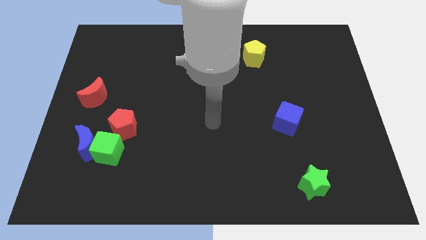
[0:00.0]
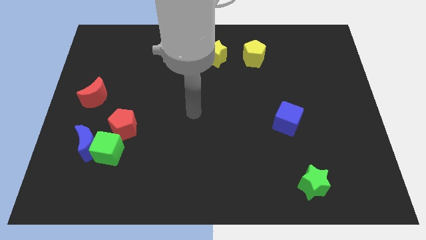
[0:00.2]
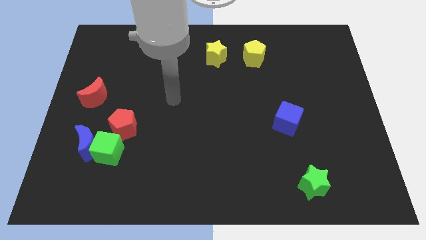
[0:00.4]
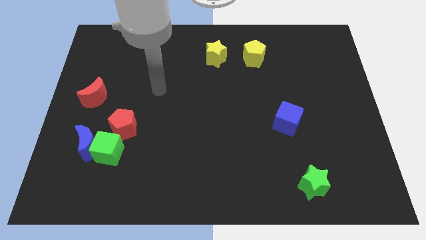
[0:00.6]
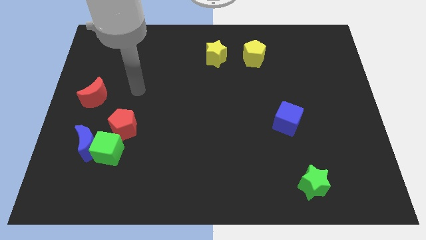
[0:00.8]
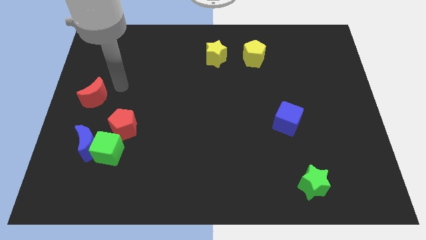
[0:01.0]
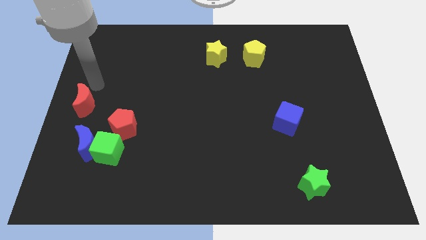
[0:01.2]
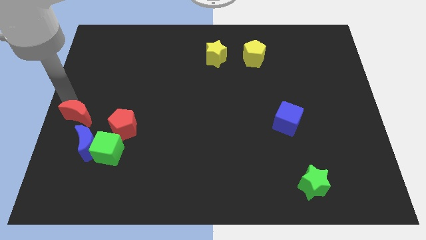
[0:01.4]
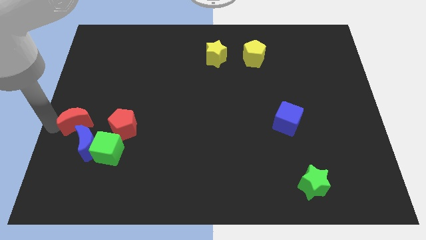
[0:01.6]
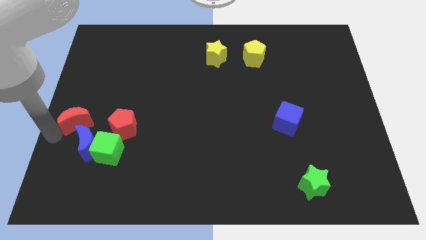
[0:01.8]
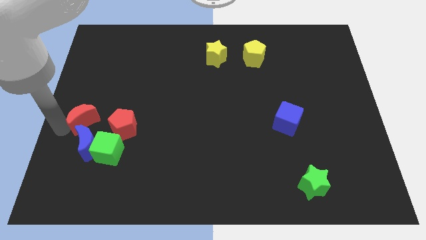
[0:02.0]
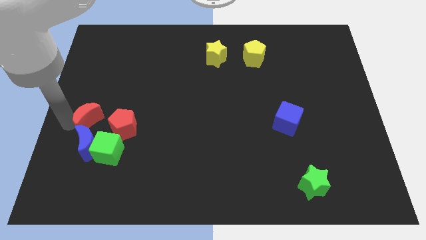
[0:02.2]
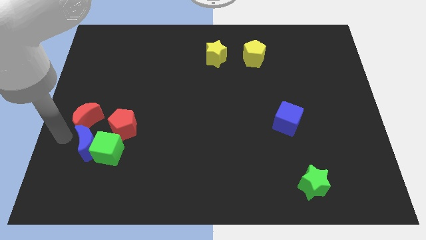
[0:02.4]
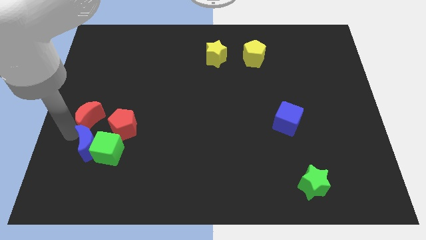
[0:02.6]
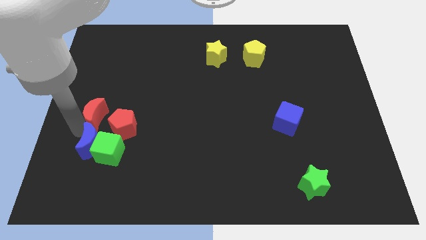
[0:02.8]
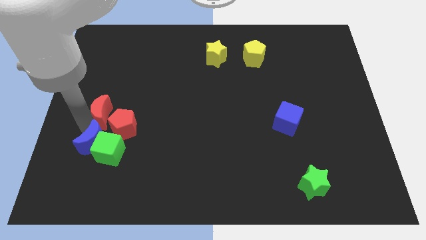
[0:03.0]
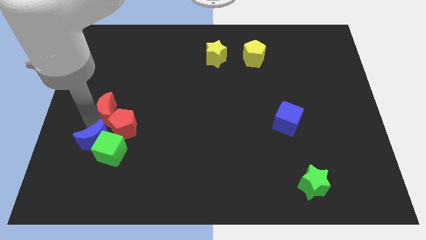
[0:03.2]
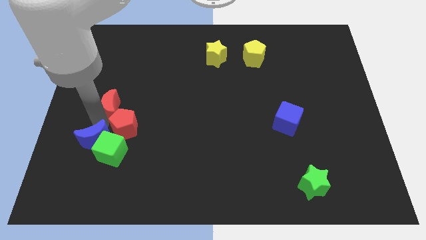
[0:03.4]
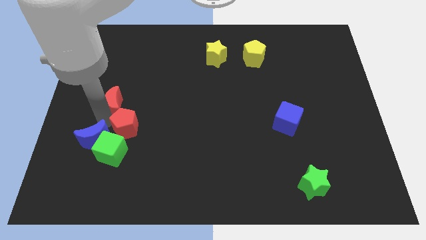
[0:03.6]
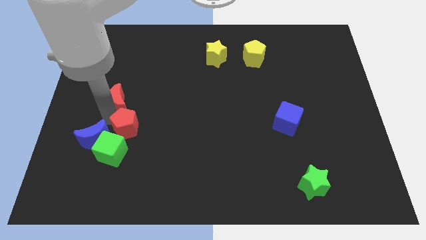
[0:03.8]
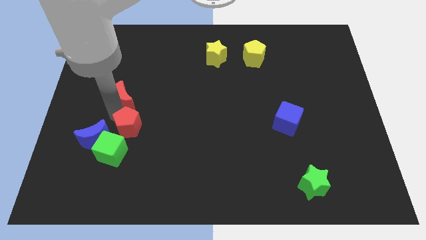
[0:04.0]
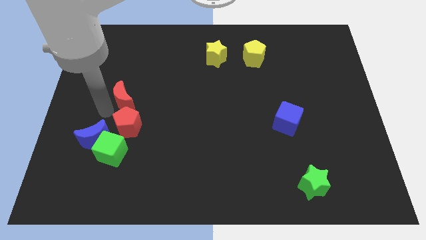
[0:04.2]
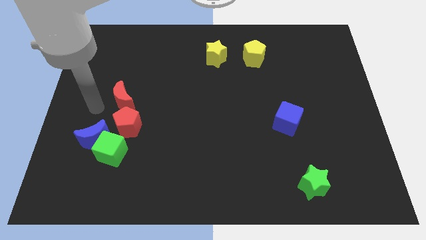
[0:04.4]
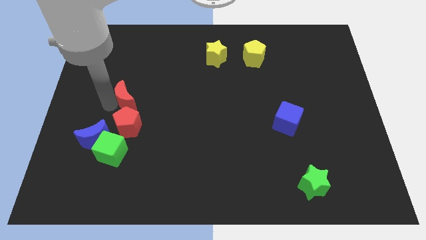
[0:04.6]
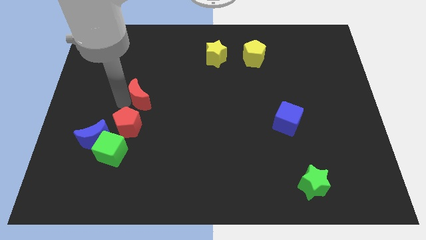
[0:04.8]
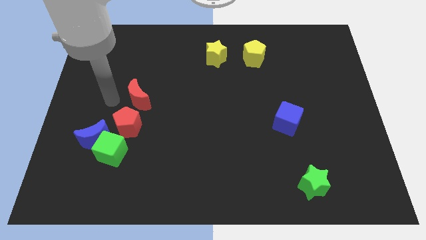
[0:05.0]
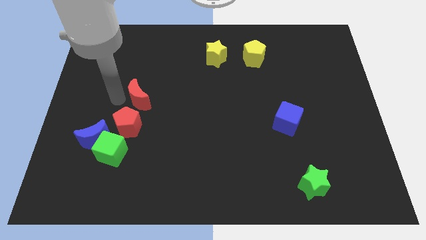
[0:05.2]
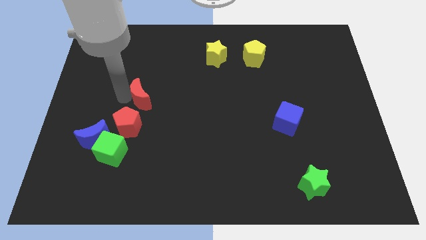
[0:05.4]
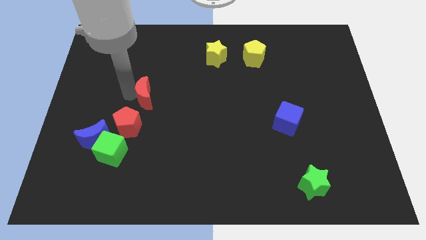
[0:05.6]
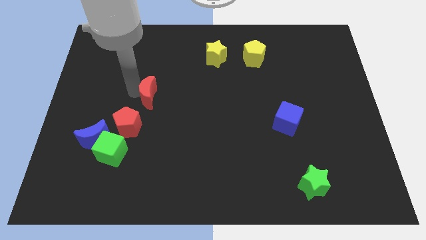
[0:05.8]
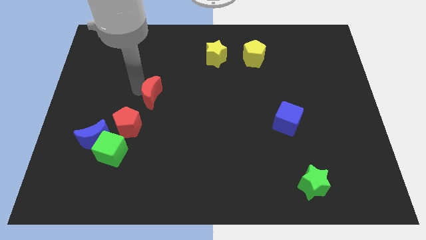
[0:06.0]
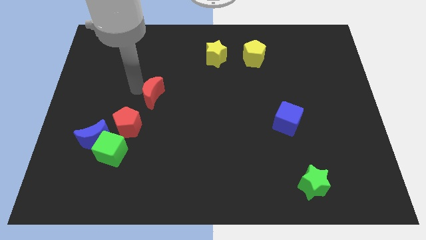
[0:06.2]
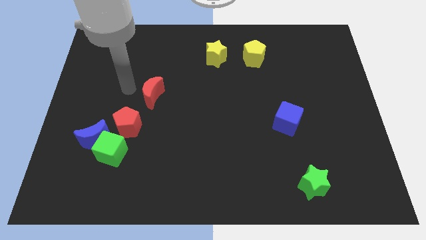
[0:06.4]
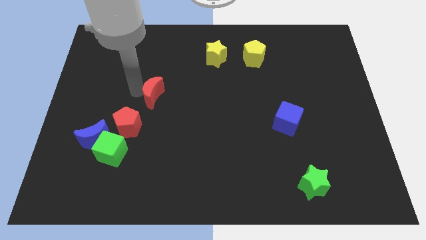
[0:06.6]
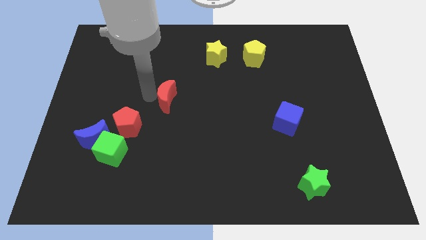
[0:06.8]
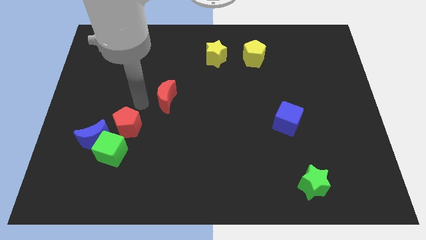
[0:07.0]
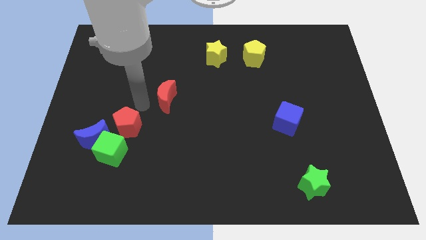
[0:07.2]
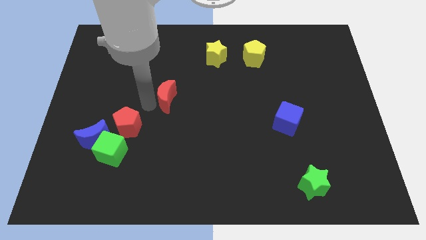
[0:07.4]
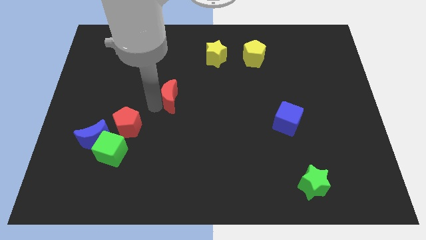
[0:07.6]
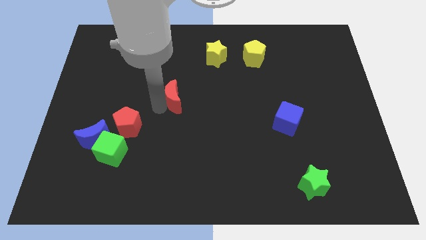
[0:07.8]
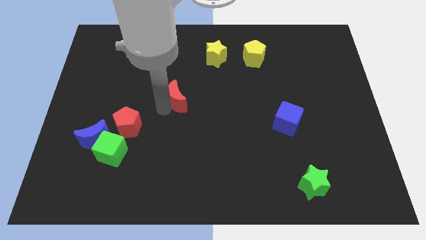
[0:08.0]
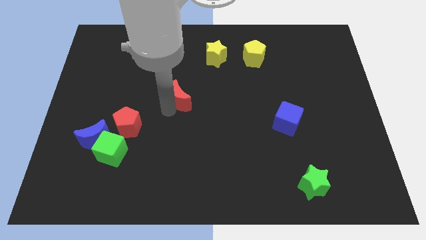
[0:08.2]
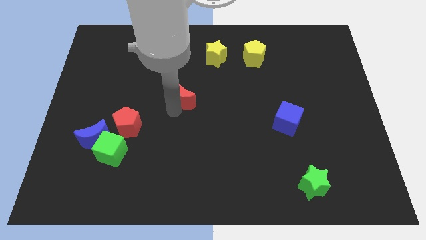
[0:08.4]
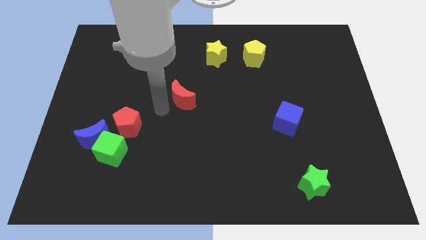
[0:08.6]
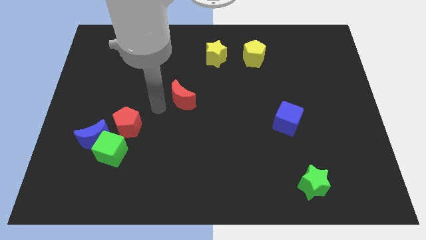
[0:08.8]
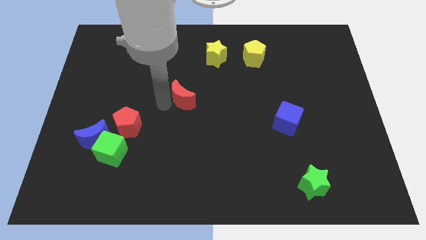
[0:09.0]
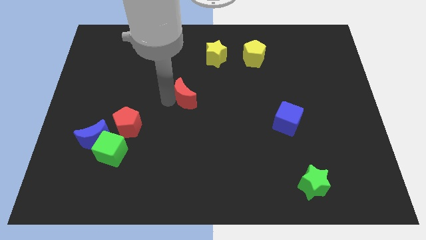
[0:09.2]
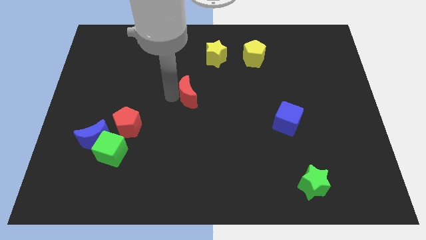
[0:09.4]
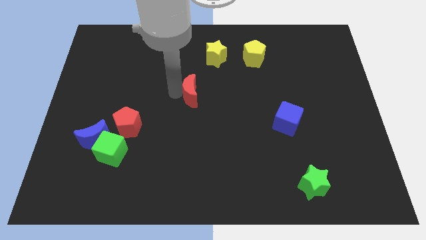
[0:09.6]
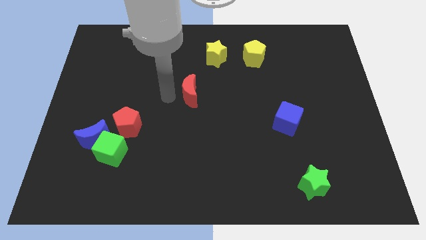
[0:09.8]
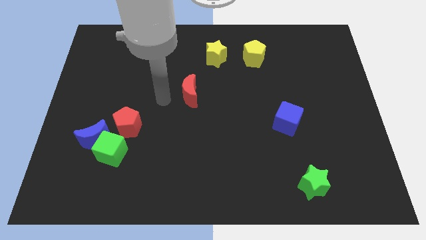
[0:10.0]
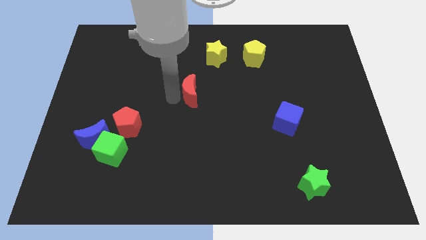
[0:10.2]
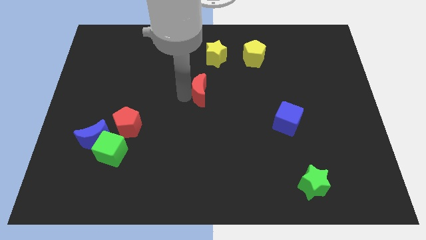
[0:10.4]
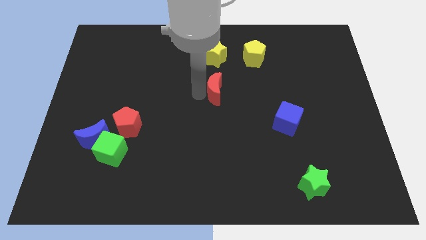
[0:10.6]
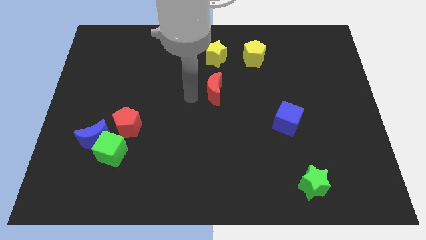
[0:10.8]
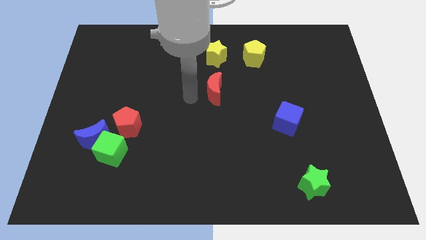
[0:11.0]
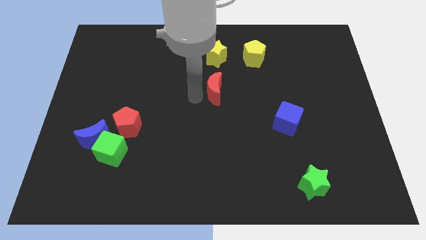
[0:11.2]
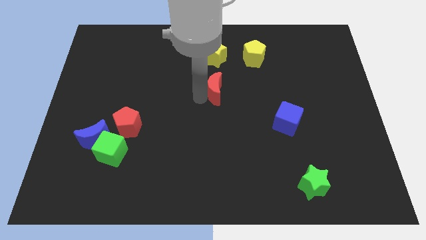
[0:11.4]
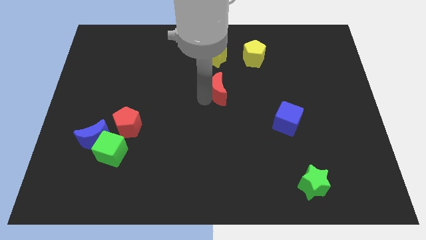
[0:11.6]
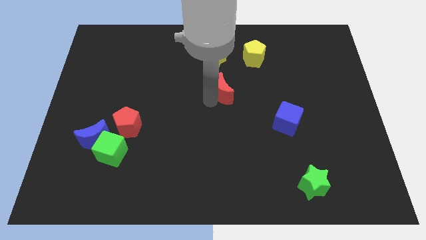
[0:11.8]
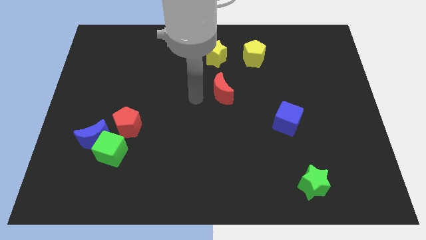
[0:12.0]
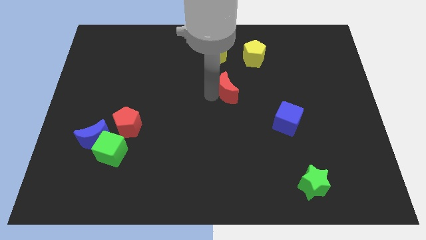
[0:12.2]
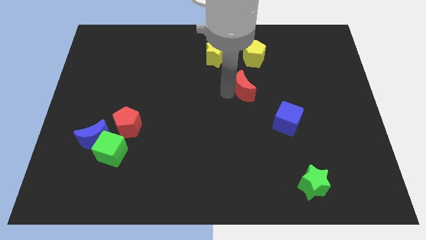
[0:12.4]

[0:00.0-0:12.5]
push the red moon to the bottom side of the yellow pentagon

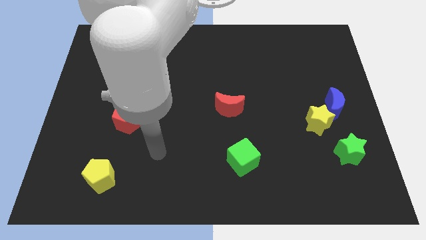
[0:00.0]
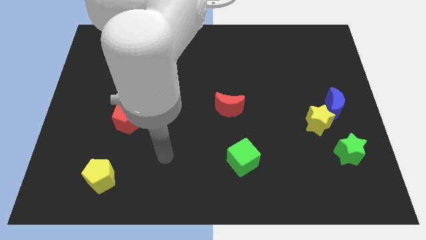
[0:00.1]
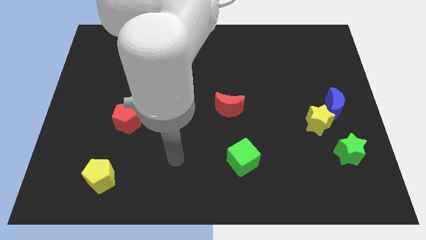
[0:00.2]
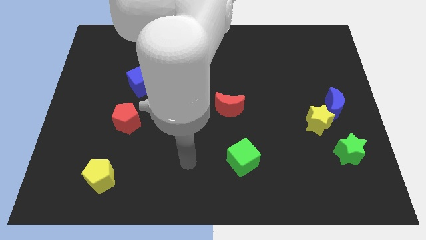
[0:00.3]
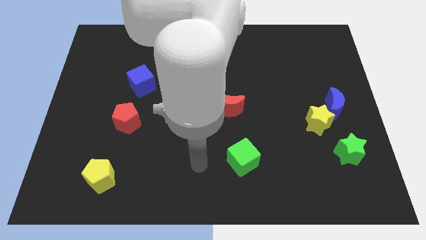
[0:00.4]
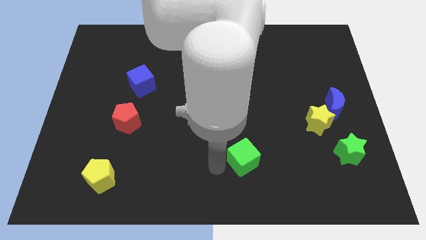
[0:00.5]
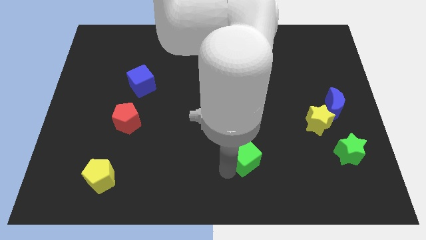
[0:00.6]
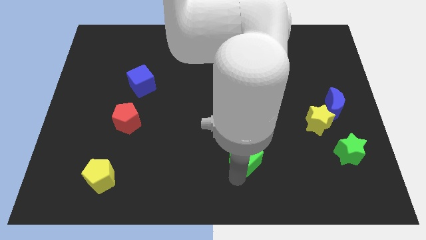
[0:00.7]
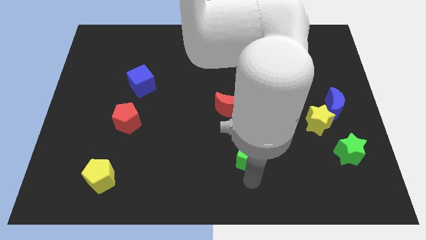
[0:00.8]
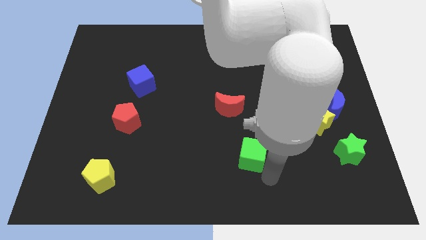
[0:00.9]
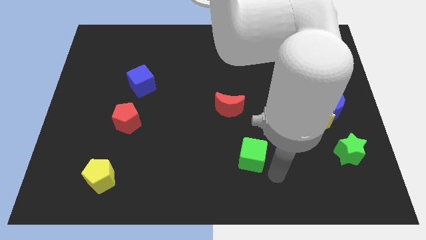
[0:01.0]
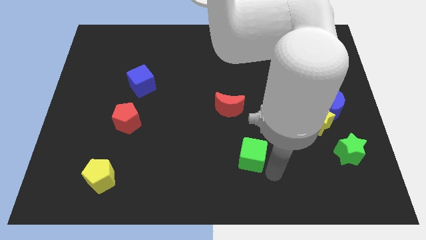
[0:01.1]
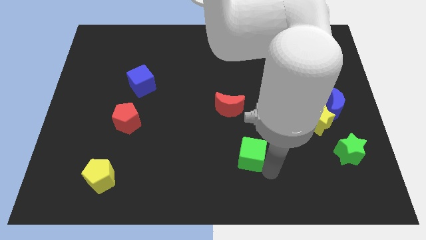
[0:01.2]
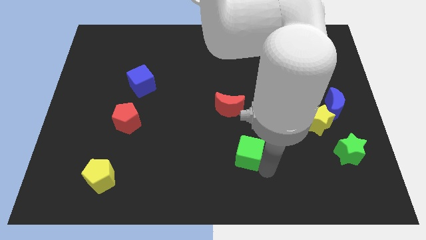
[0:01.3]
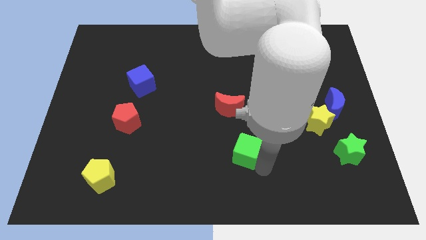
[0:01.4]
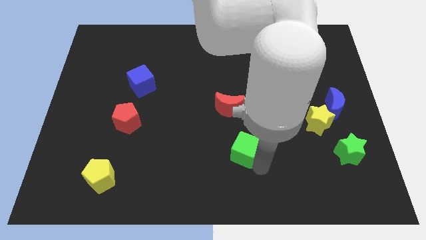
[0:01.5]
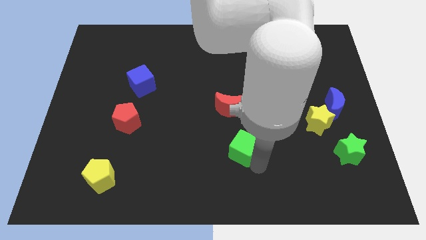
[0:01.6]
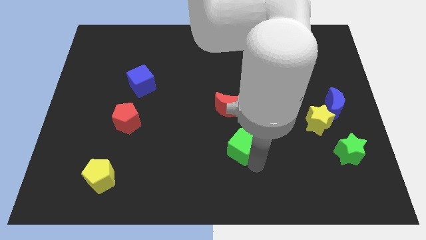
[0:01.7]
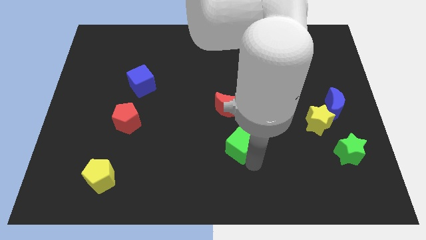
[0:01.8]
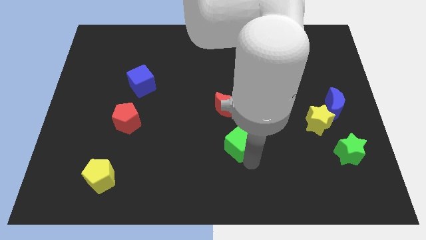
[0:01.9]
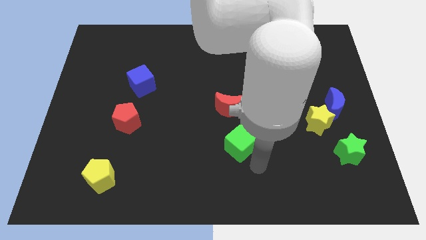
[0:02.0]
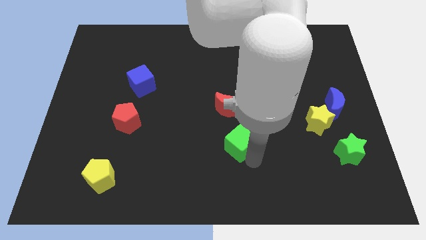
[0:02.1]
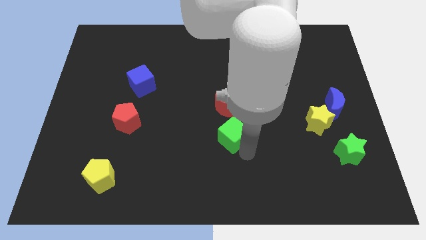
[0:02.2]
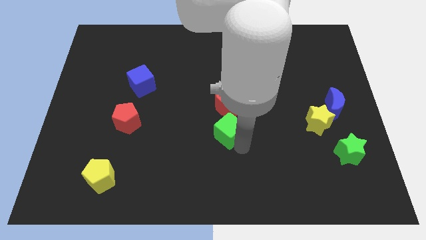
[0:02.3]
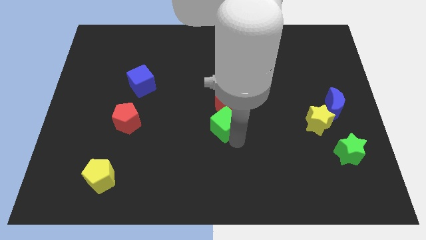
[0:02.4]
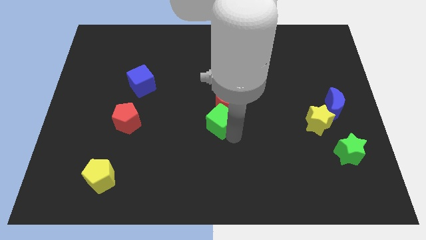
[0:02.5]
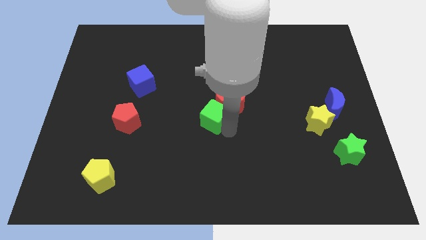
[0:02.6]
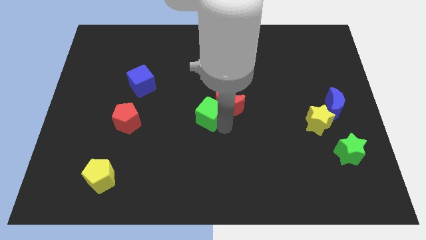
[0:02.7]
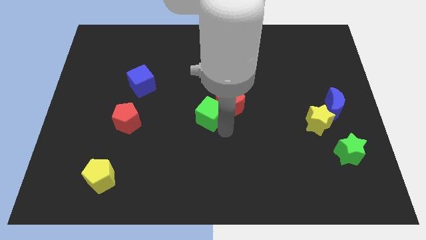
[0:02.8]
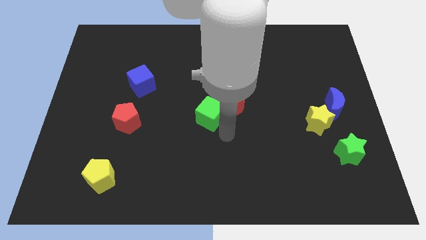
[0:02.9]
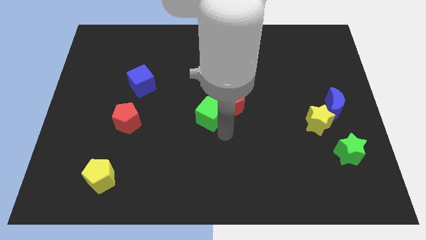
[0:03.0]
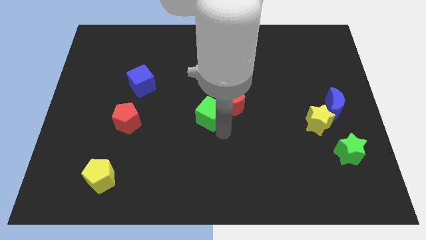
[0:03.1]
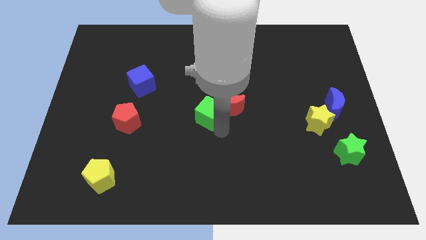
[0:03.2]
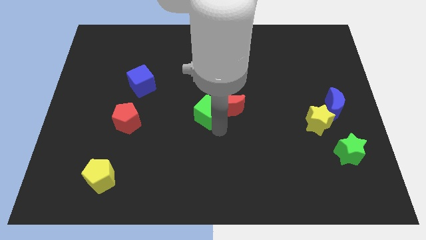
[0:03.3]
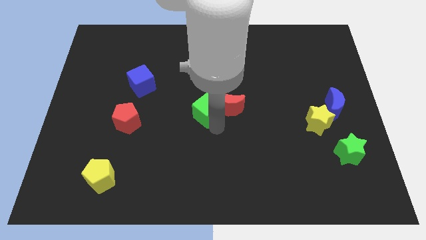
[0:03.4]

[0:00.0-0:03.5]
put the green cube diagonally up and to the left of the red moon
